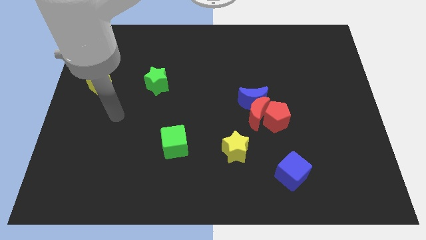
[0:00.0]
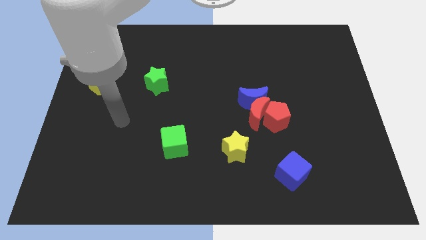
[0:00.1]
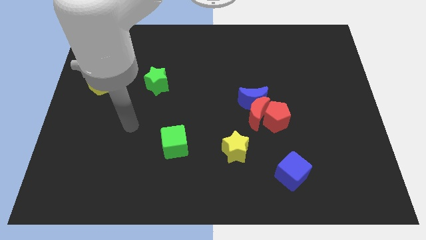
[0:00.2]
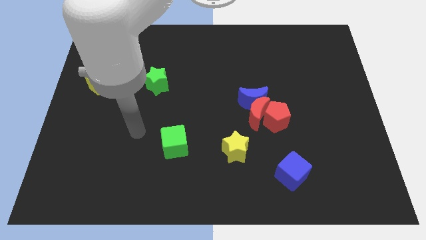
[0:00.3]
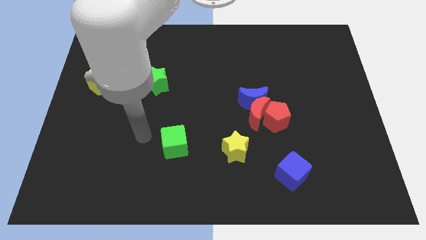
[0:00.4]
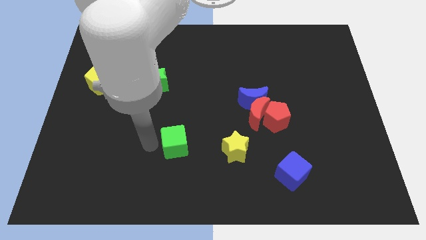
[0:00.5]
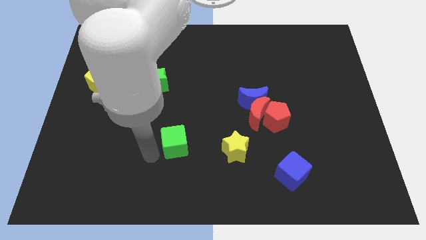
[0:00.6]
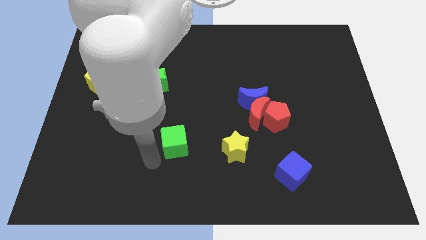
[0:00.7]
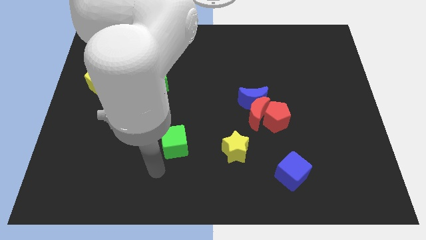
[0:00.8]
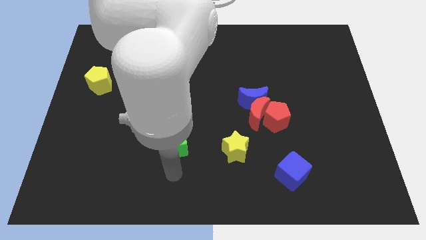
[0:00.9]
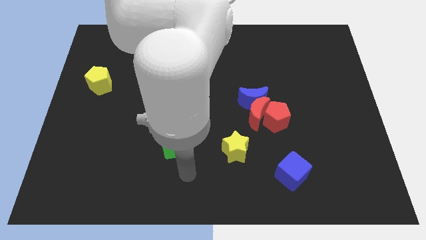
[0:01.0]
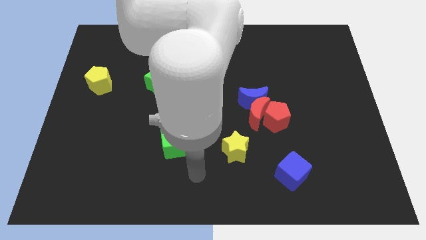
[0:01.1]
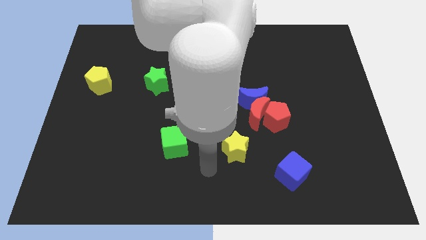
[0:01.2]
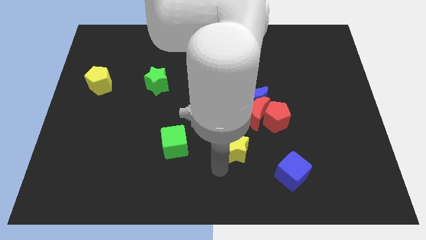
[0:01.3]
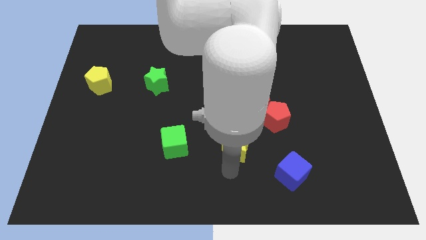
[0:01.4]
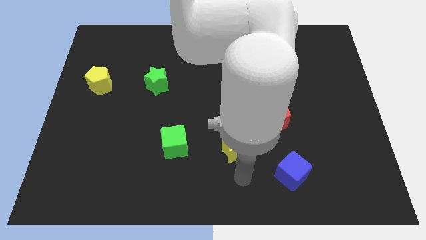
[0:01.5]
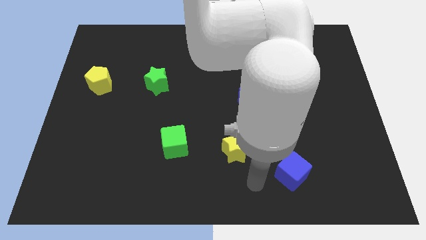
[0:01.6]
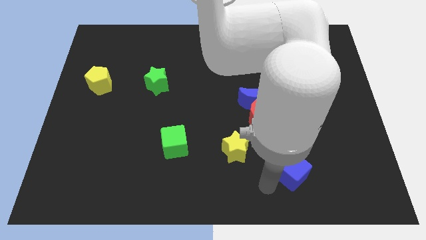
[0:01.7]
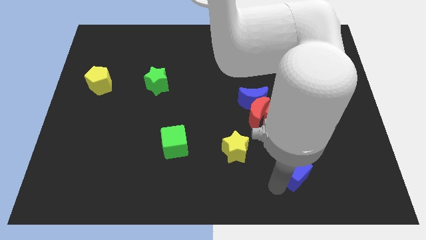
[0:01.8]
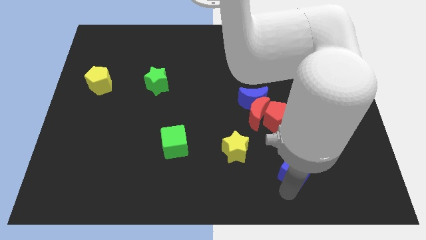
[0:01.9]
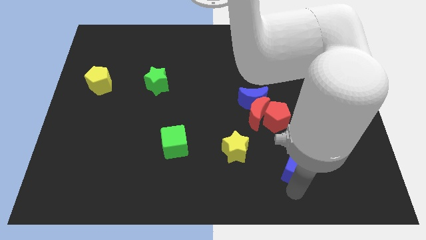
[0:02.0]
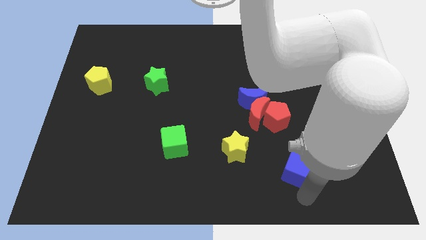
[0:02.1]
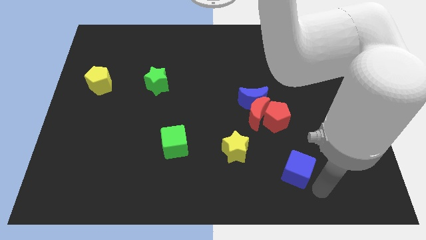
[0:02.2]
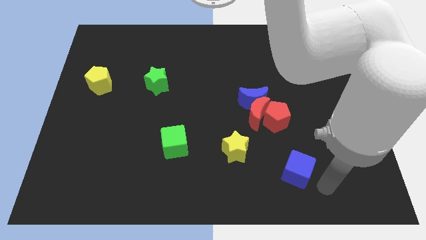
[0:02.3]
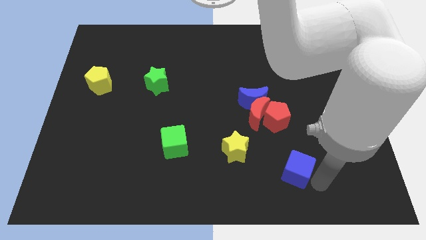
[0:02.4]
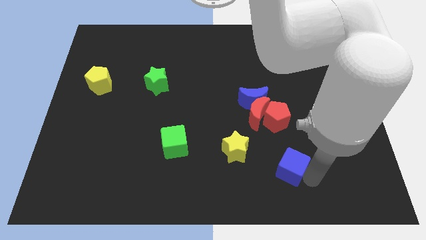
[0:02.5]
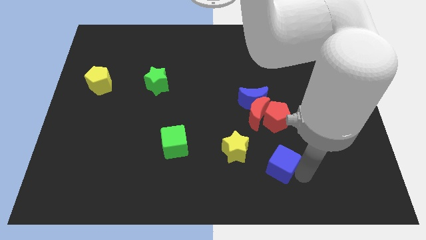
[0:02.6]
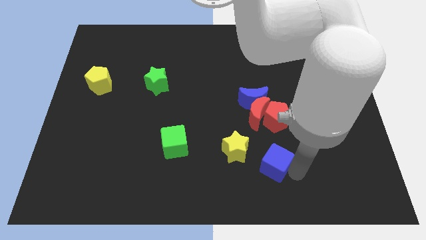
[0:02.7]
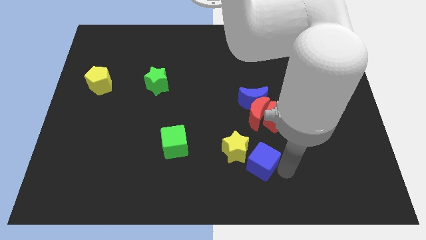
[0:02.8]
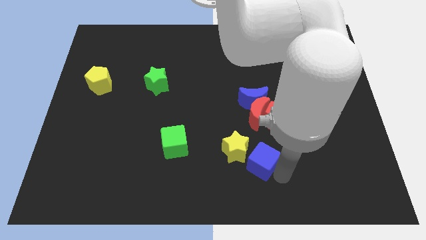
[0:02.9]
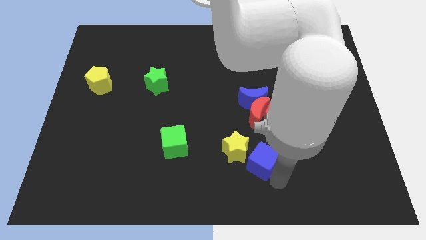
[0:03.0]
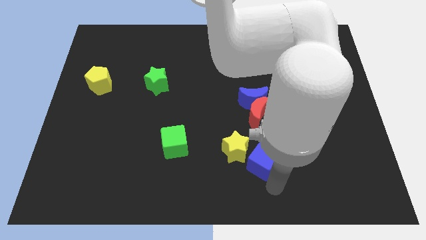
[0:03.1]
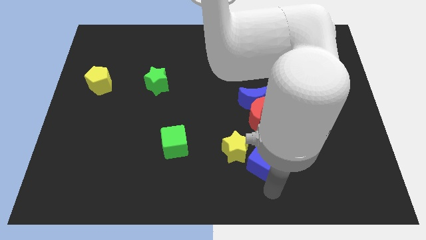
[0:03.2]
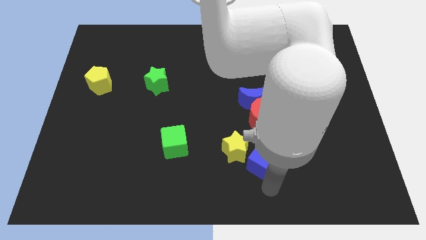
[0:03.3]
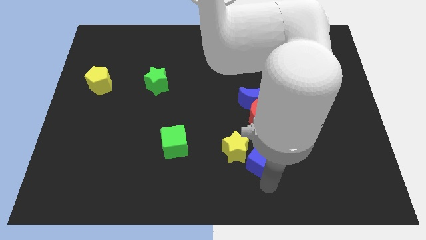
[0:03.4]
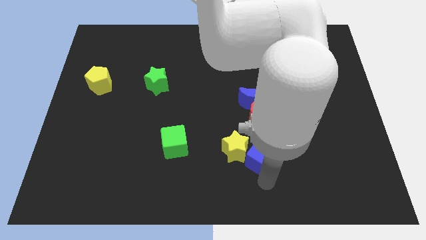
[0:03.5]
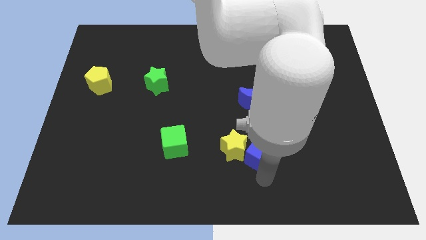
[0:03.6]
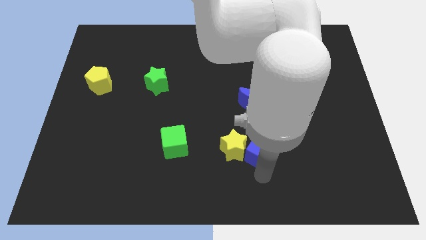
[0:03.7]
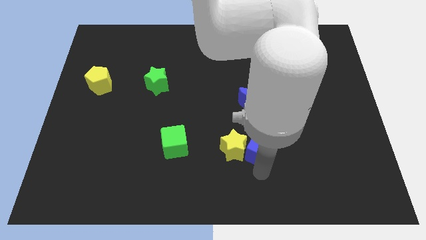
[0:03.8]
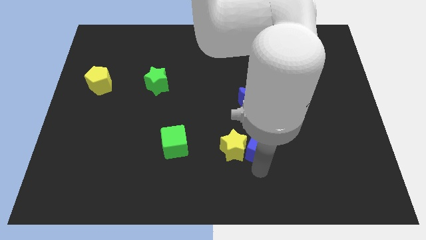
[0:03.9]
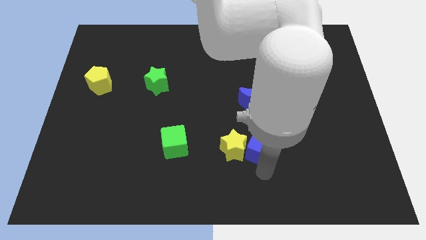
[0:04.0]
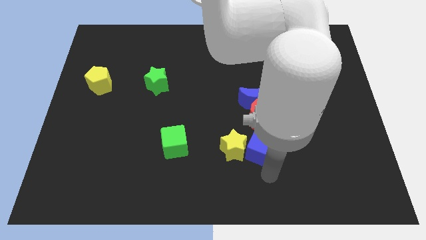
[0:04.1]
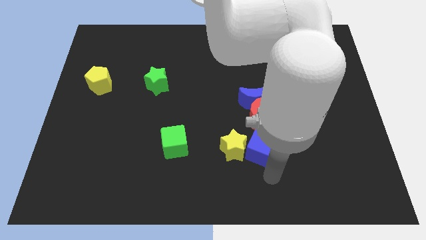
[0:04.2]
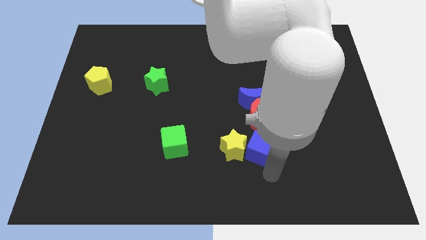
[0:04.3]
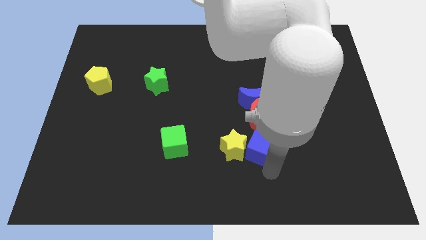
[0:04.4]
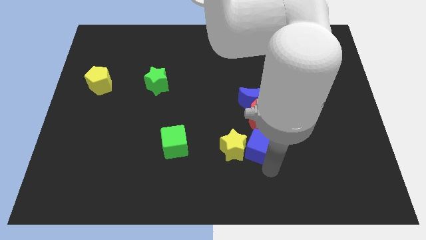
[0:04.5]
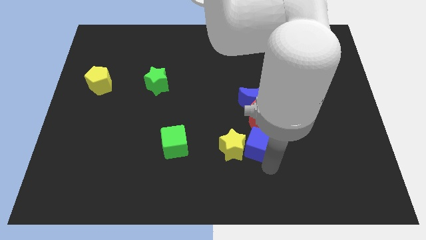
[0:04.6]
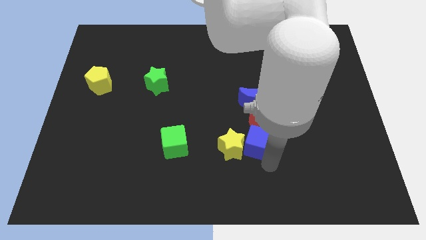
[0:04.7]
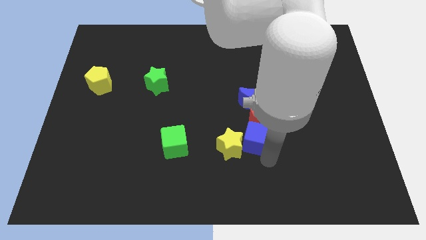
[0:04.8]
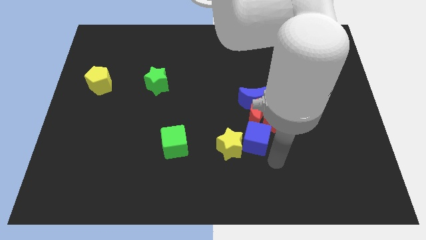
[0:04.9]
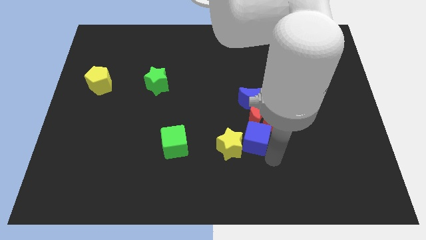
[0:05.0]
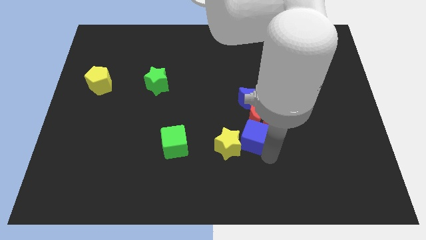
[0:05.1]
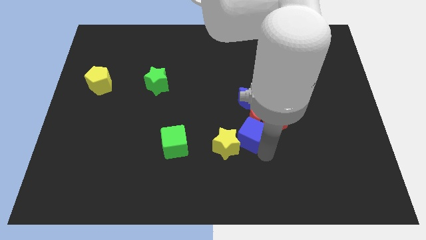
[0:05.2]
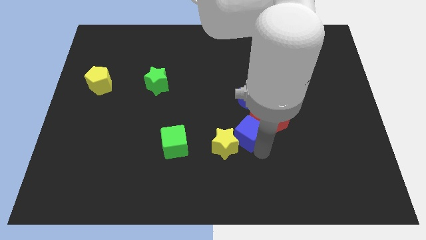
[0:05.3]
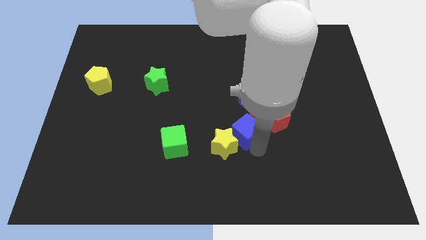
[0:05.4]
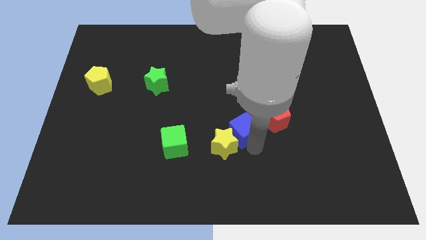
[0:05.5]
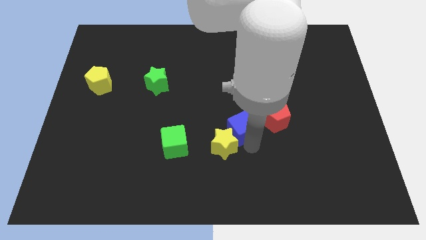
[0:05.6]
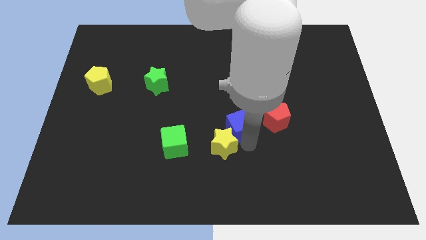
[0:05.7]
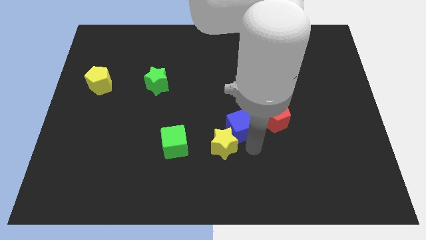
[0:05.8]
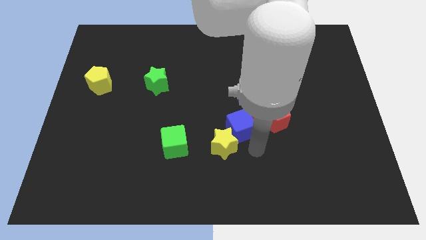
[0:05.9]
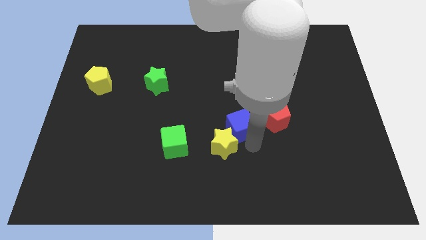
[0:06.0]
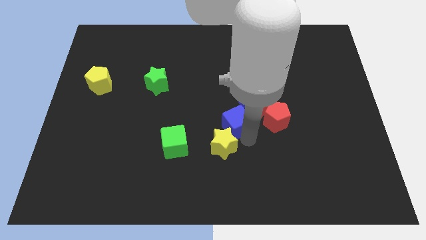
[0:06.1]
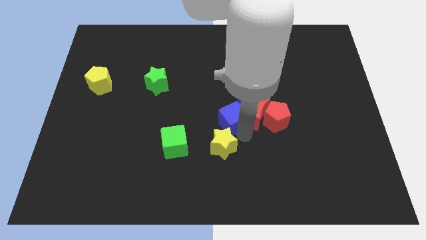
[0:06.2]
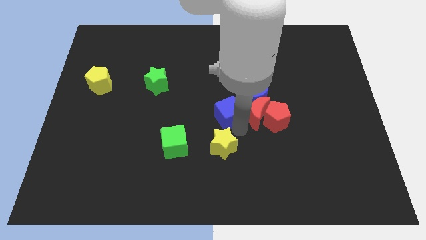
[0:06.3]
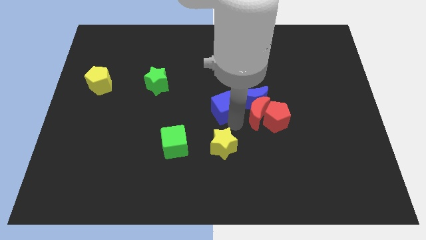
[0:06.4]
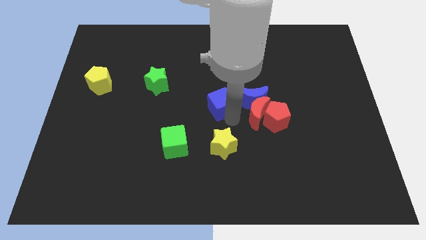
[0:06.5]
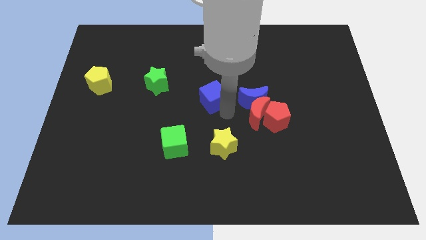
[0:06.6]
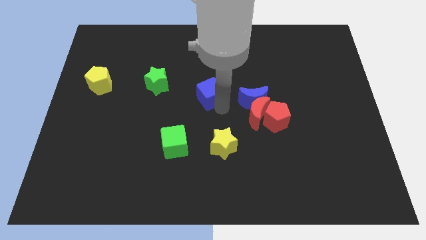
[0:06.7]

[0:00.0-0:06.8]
push the blue cube to the right side of the green star
